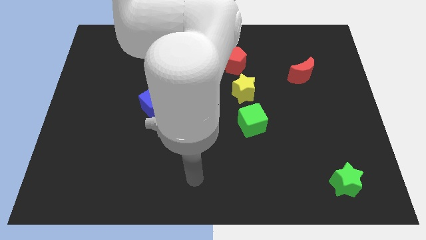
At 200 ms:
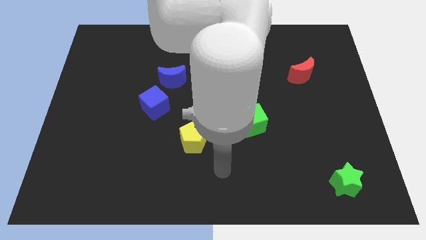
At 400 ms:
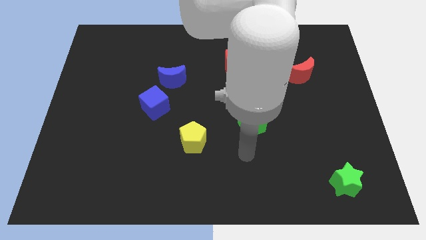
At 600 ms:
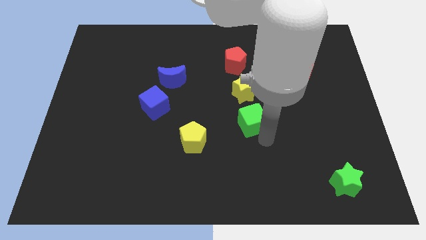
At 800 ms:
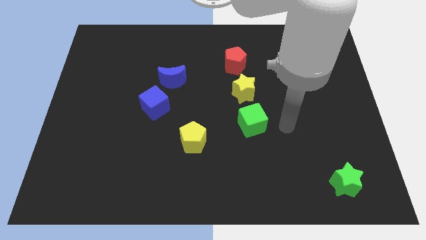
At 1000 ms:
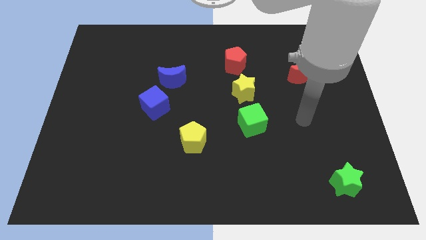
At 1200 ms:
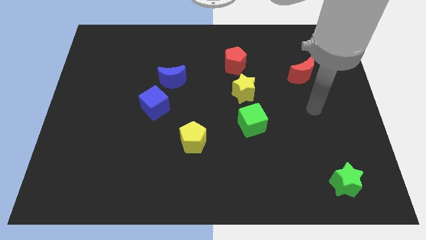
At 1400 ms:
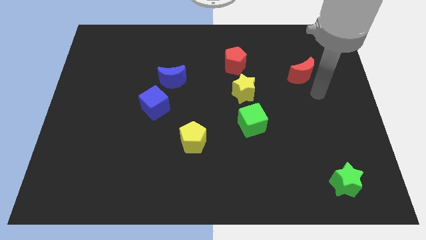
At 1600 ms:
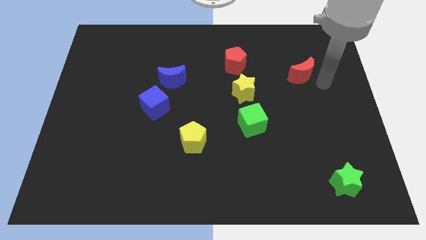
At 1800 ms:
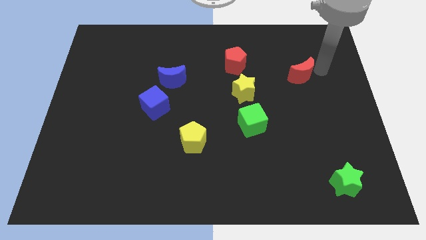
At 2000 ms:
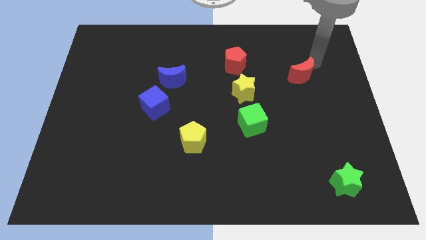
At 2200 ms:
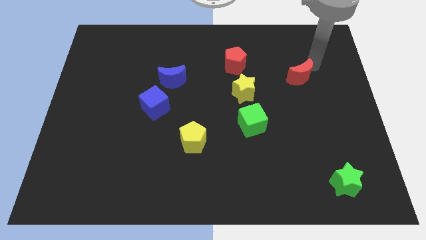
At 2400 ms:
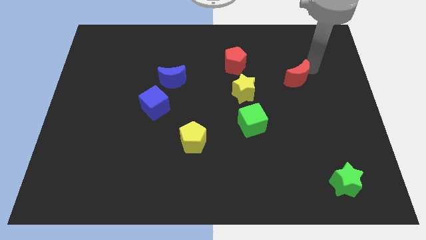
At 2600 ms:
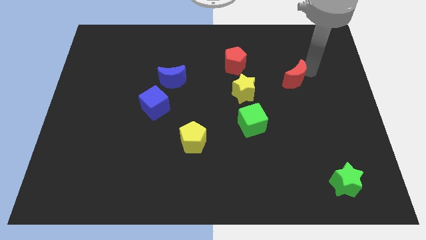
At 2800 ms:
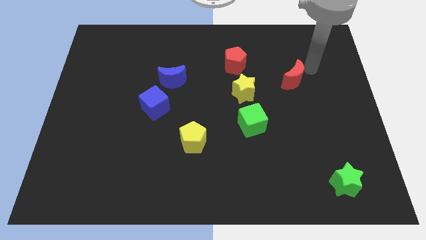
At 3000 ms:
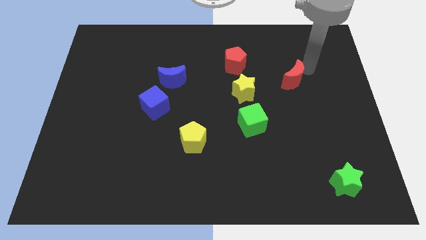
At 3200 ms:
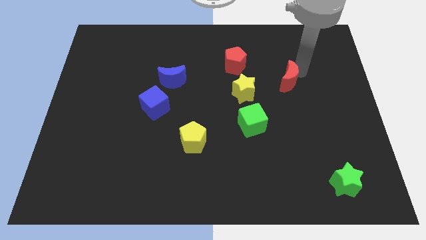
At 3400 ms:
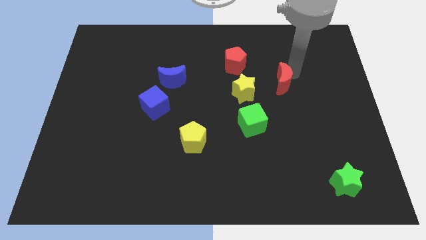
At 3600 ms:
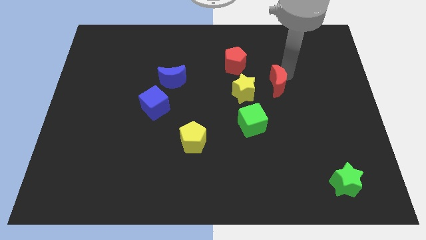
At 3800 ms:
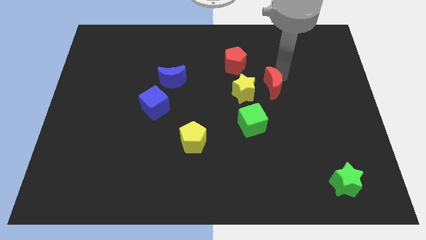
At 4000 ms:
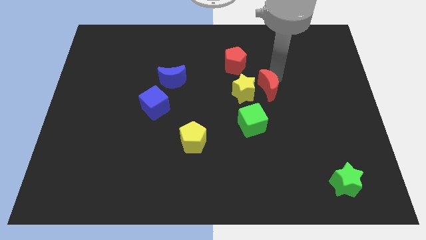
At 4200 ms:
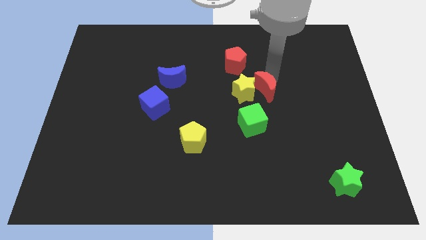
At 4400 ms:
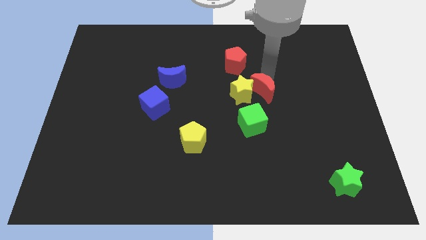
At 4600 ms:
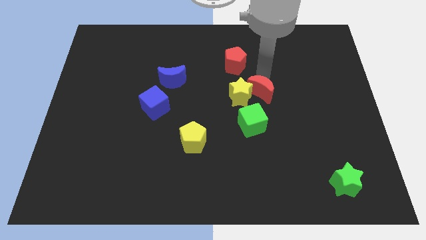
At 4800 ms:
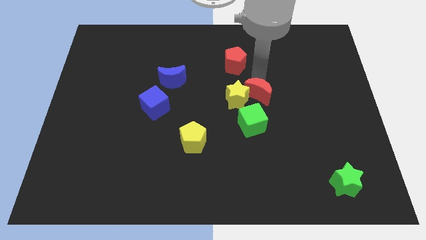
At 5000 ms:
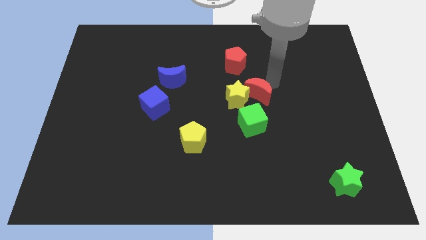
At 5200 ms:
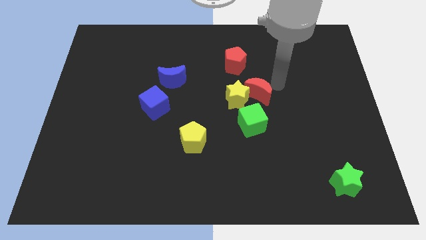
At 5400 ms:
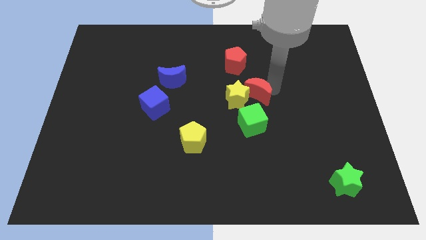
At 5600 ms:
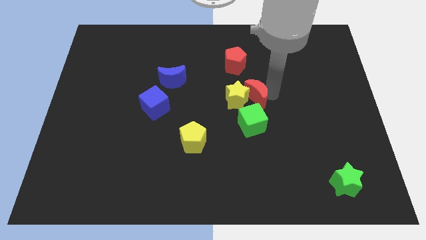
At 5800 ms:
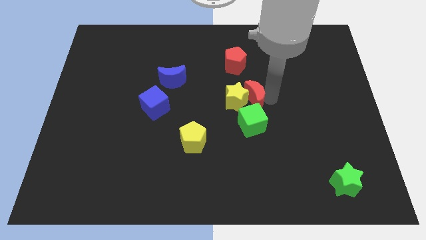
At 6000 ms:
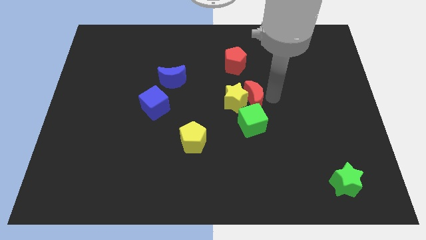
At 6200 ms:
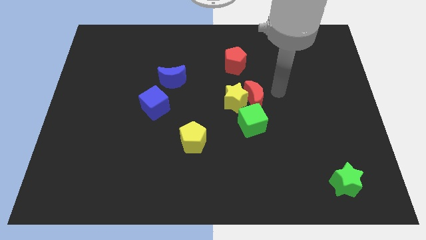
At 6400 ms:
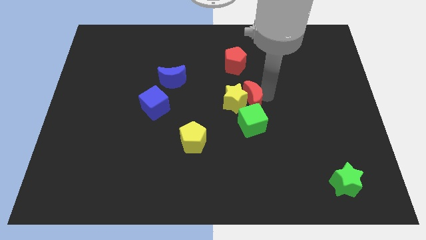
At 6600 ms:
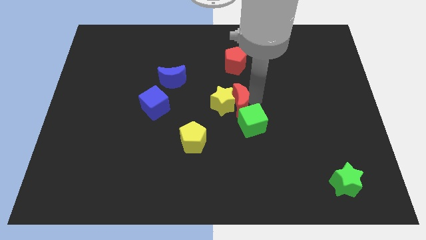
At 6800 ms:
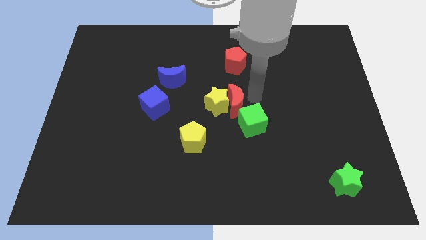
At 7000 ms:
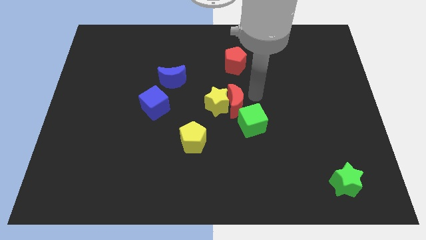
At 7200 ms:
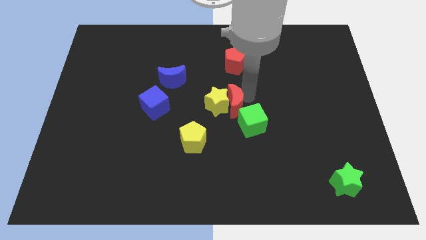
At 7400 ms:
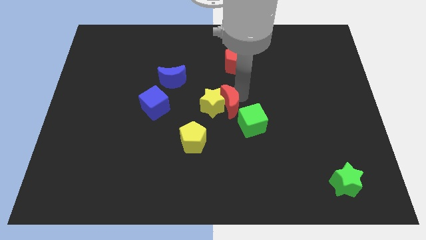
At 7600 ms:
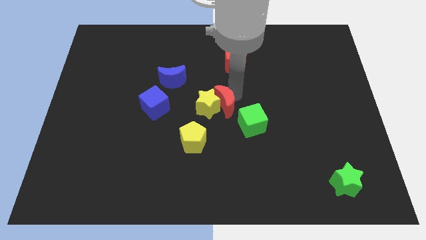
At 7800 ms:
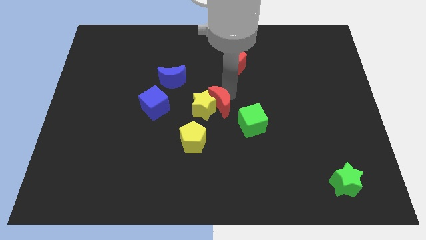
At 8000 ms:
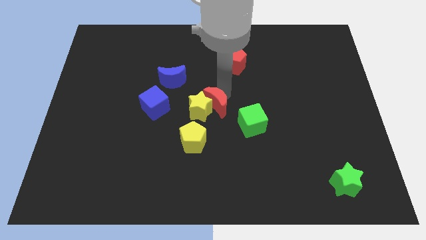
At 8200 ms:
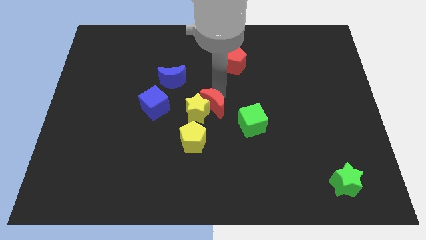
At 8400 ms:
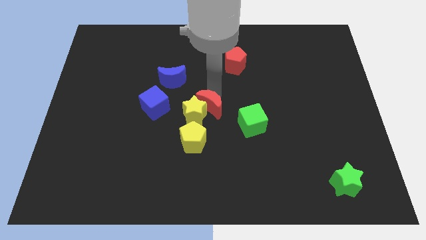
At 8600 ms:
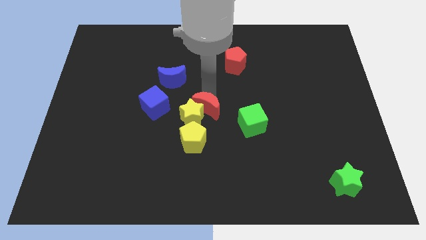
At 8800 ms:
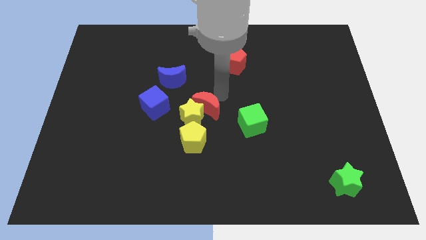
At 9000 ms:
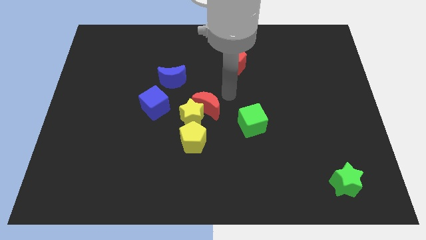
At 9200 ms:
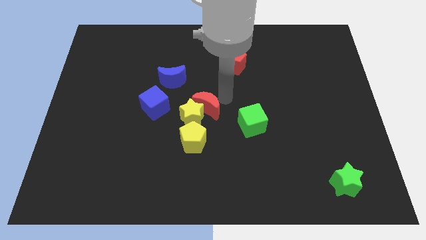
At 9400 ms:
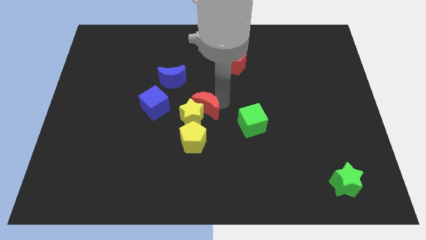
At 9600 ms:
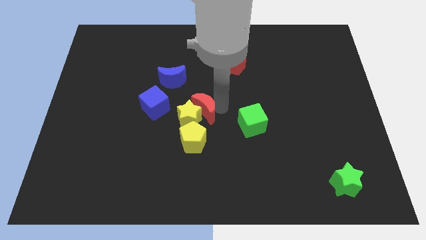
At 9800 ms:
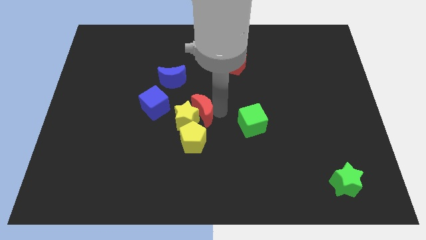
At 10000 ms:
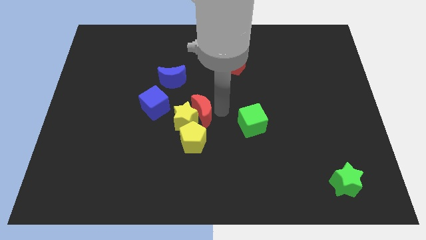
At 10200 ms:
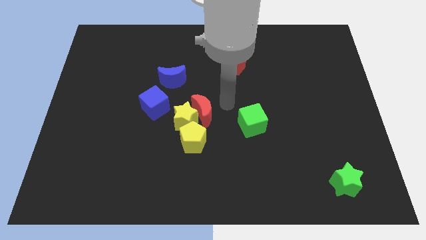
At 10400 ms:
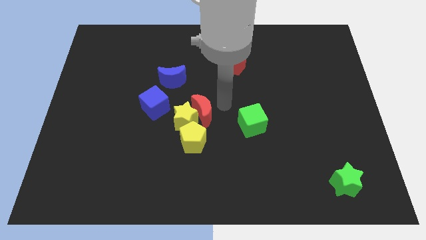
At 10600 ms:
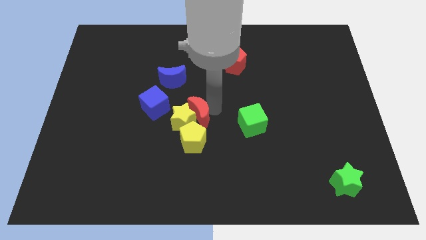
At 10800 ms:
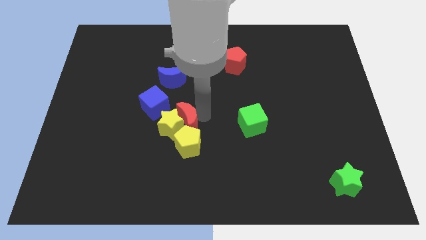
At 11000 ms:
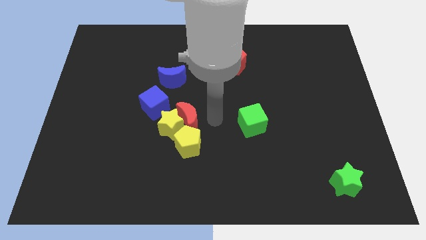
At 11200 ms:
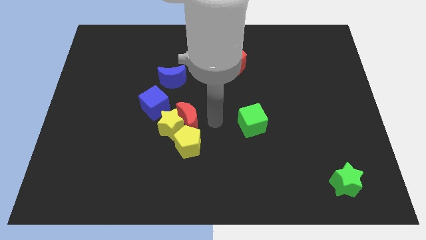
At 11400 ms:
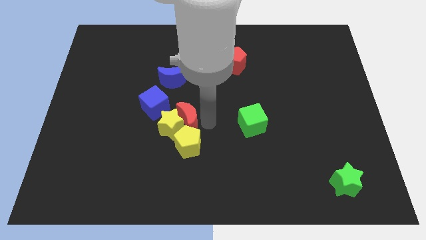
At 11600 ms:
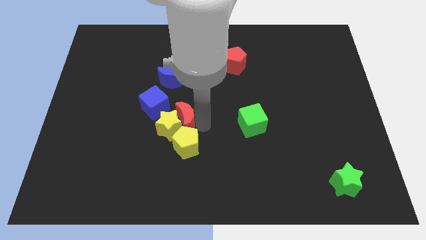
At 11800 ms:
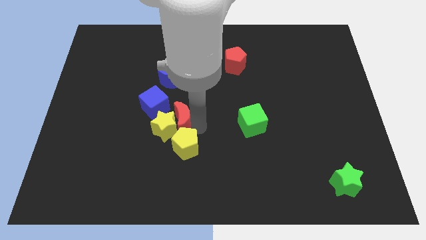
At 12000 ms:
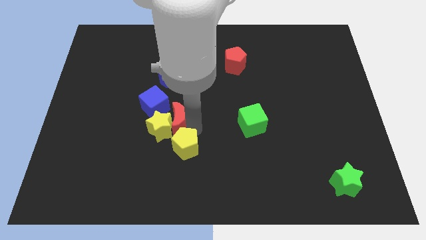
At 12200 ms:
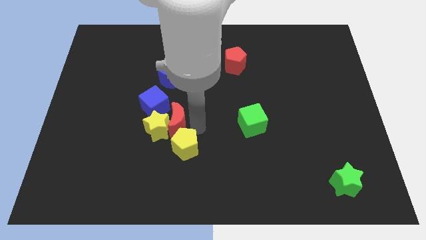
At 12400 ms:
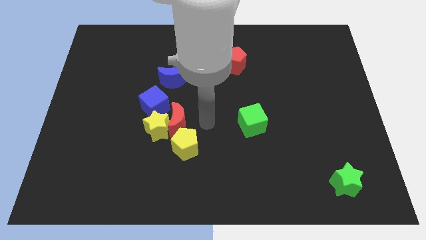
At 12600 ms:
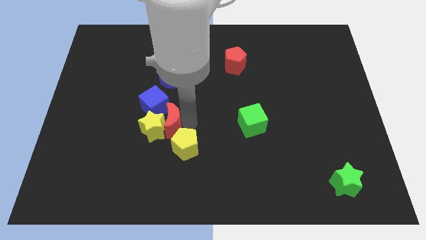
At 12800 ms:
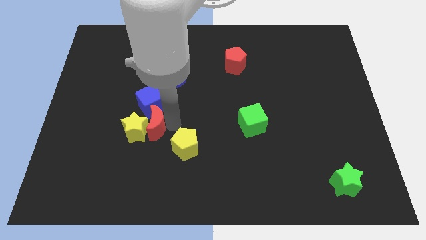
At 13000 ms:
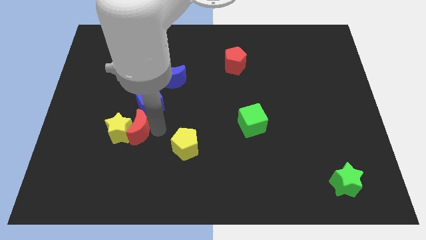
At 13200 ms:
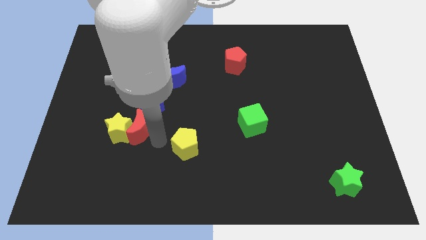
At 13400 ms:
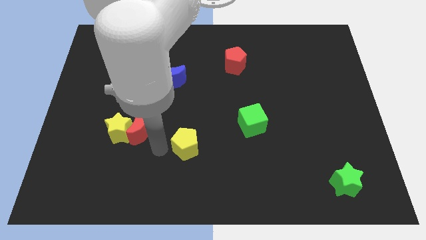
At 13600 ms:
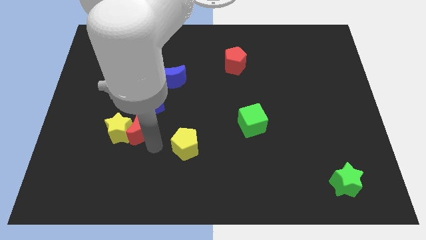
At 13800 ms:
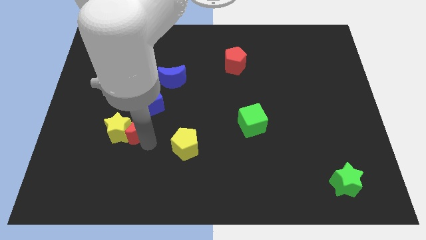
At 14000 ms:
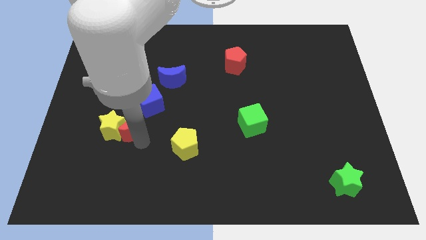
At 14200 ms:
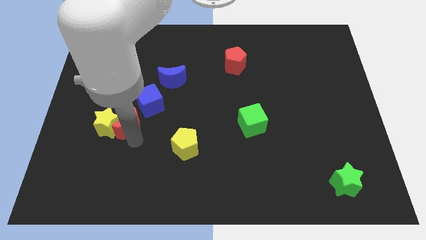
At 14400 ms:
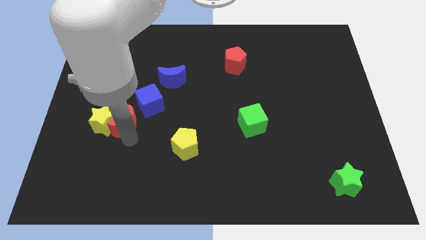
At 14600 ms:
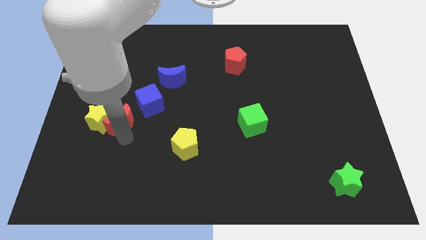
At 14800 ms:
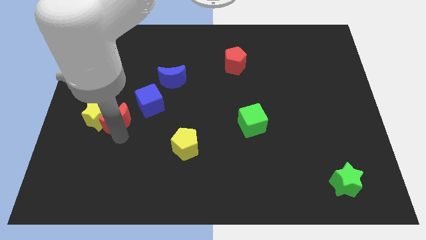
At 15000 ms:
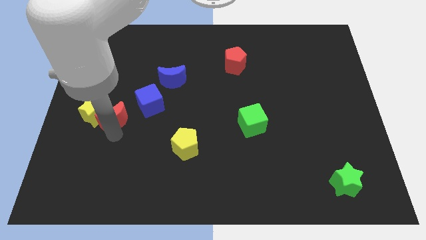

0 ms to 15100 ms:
put the red moon just left of the blue cube
